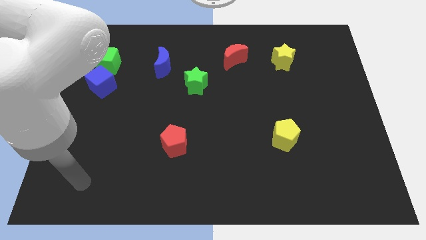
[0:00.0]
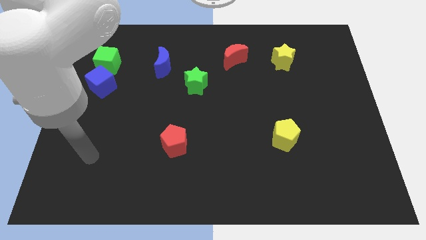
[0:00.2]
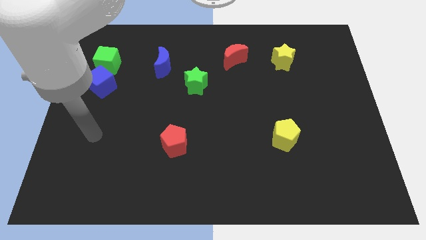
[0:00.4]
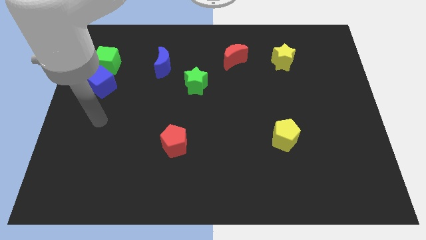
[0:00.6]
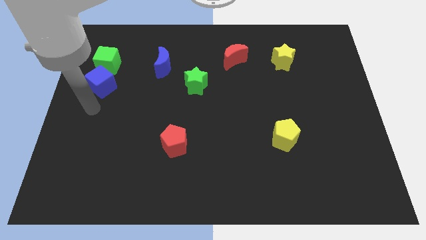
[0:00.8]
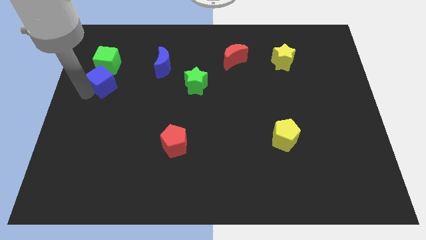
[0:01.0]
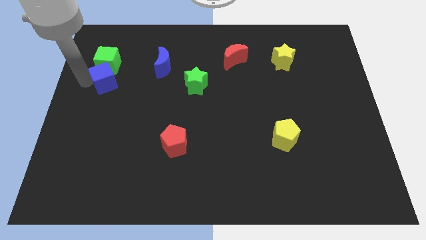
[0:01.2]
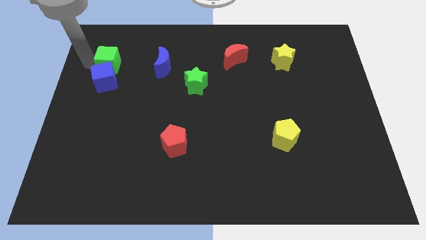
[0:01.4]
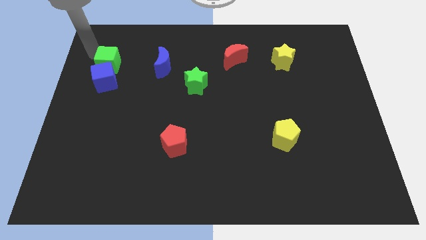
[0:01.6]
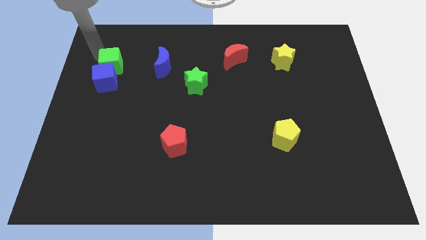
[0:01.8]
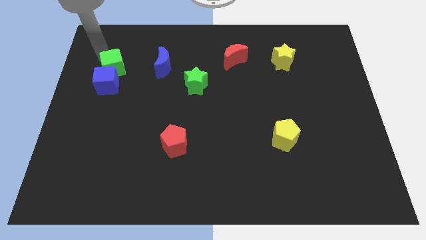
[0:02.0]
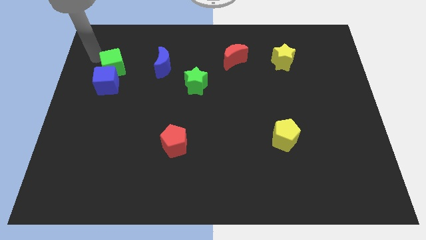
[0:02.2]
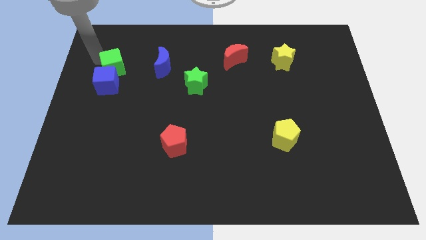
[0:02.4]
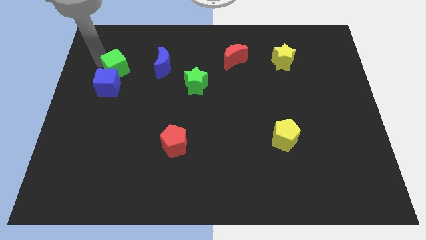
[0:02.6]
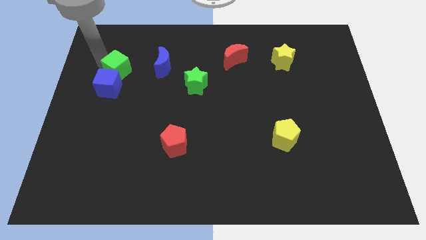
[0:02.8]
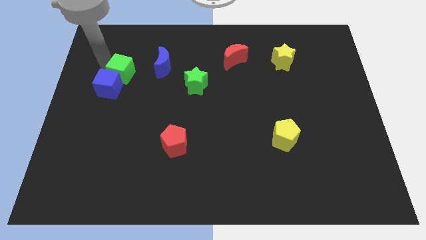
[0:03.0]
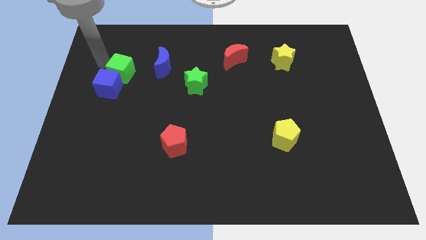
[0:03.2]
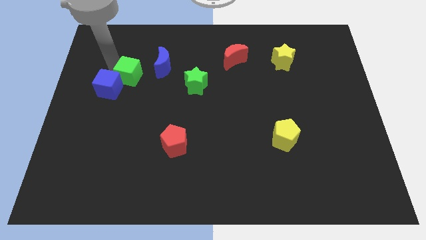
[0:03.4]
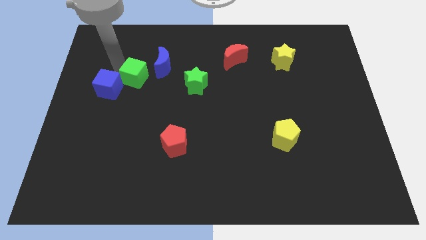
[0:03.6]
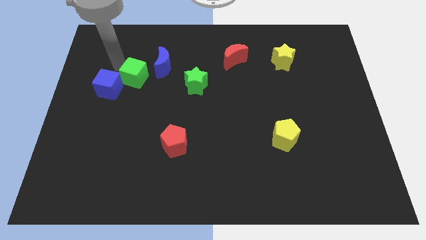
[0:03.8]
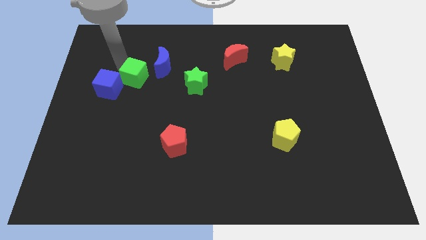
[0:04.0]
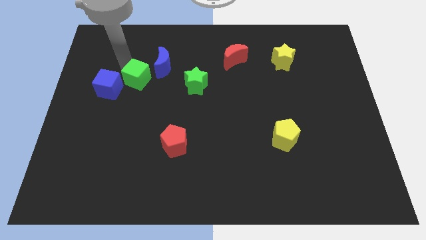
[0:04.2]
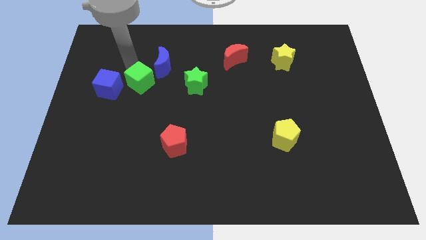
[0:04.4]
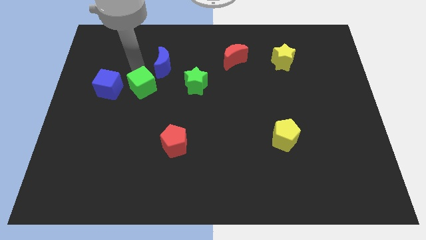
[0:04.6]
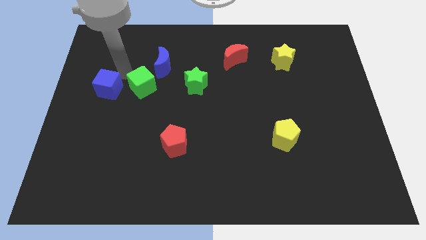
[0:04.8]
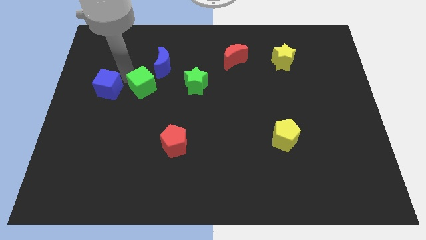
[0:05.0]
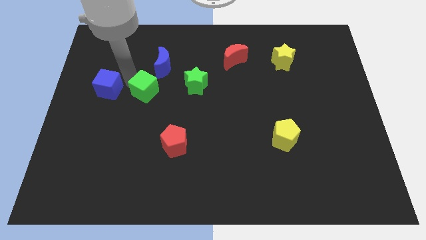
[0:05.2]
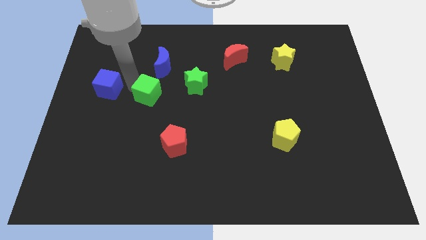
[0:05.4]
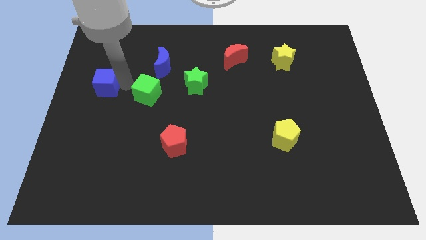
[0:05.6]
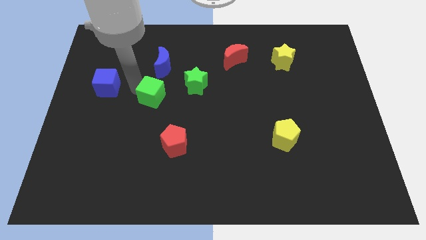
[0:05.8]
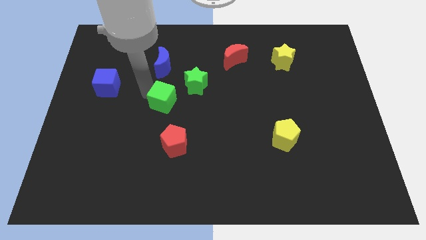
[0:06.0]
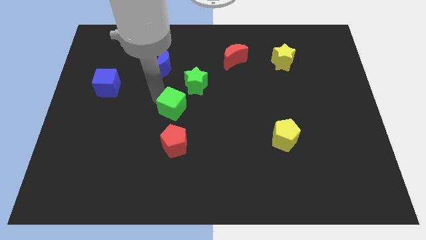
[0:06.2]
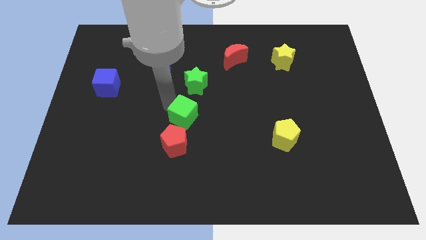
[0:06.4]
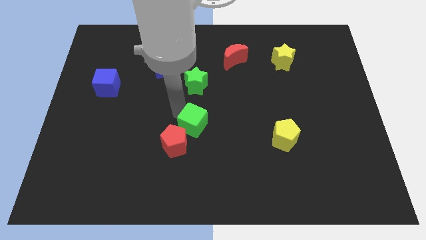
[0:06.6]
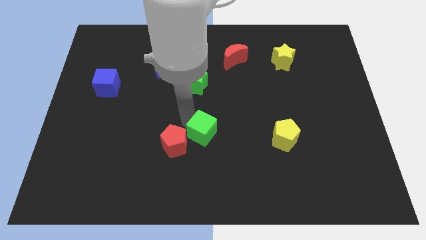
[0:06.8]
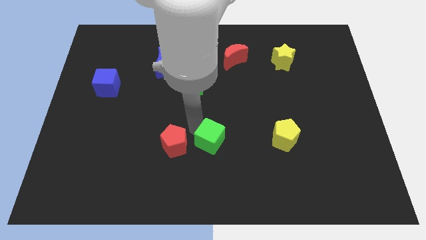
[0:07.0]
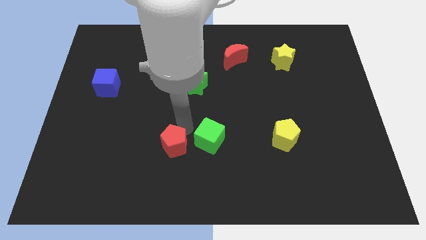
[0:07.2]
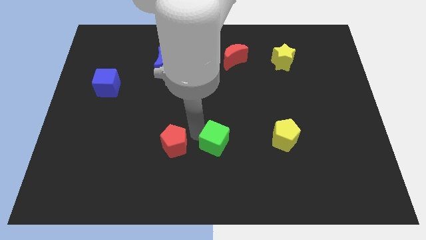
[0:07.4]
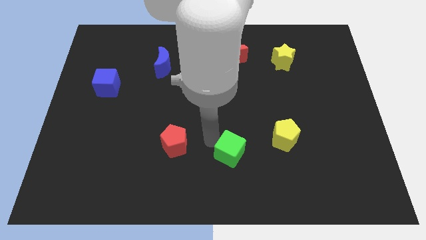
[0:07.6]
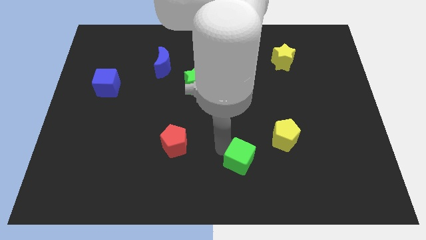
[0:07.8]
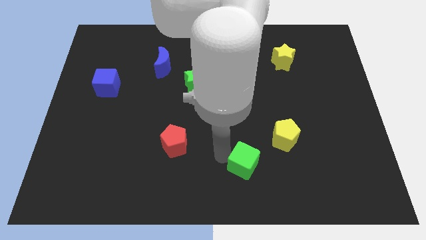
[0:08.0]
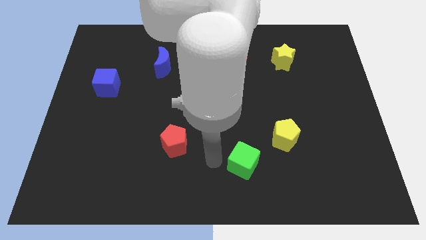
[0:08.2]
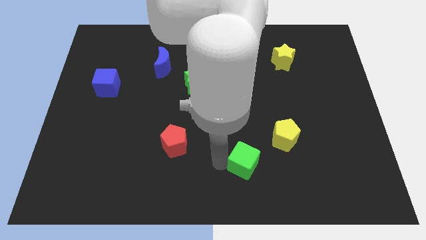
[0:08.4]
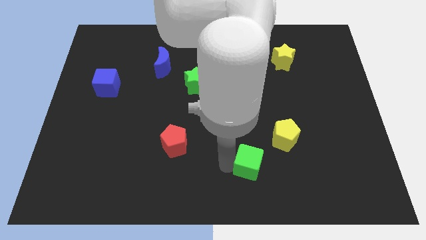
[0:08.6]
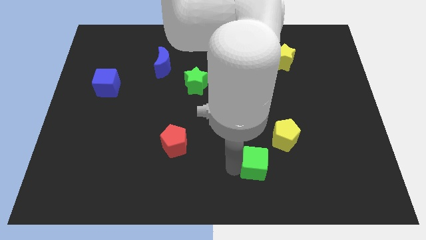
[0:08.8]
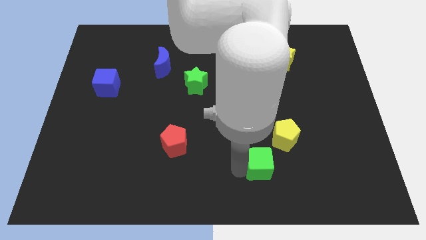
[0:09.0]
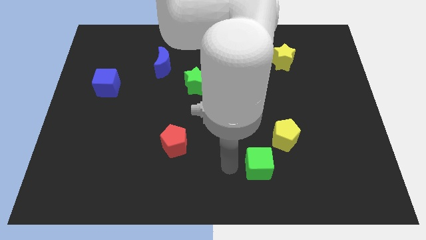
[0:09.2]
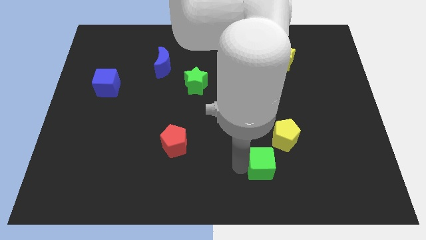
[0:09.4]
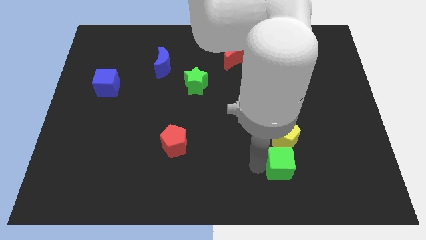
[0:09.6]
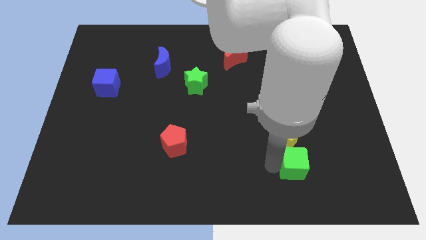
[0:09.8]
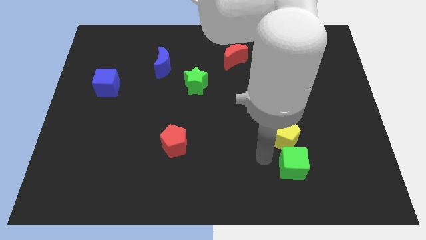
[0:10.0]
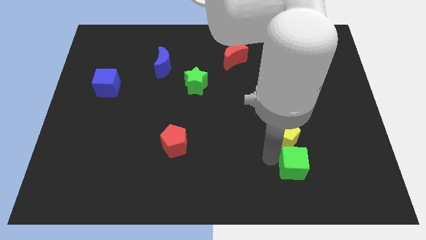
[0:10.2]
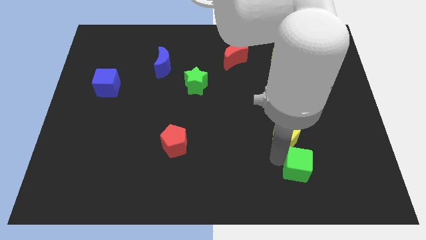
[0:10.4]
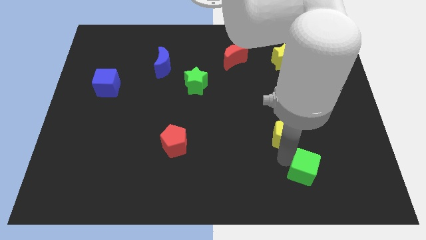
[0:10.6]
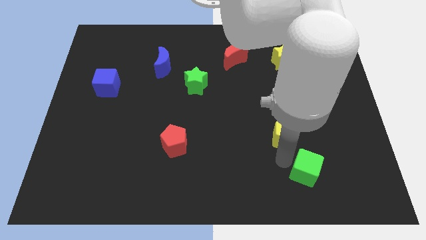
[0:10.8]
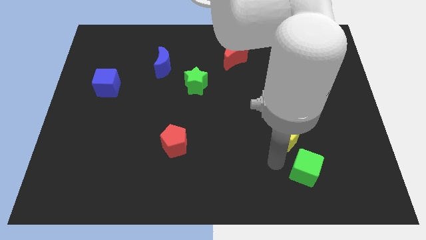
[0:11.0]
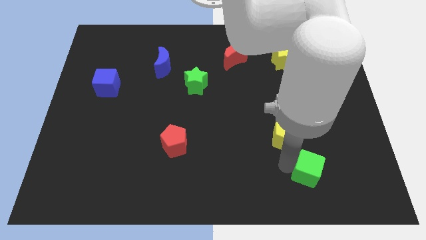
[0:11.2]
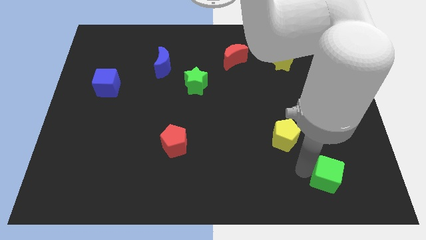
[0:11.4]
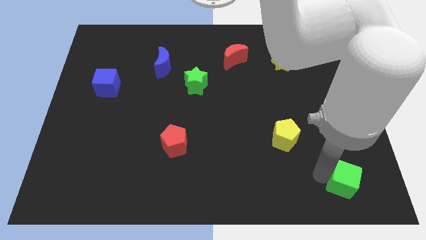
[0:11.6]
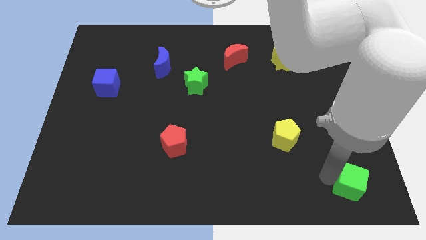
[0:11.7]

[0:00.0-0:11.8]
push the green cube to the bottom right corner

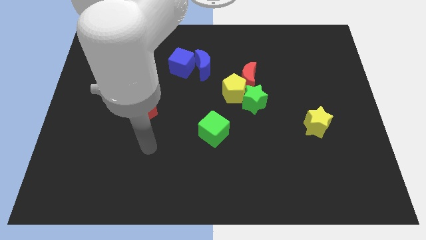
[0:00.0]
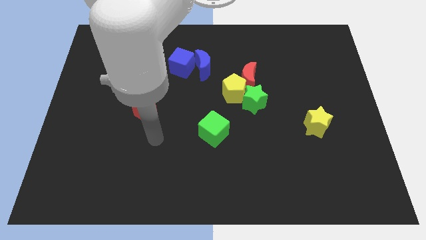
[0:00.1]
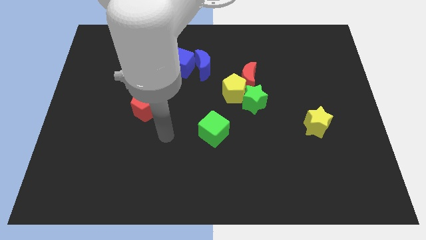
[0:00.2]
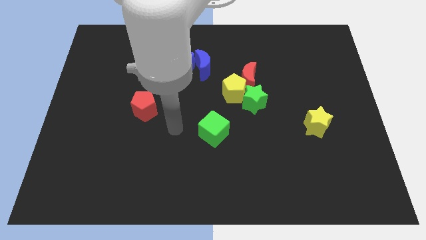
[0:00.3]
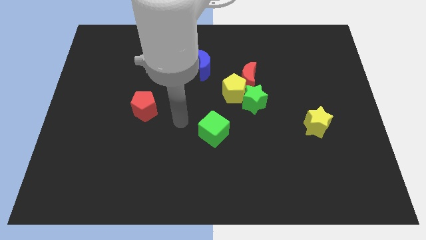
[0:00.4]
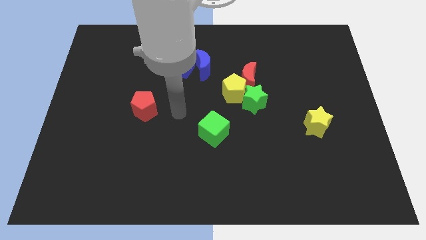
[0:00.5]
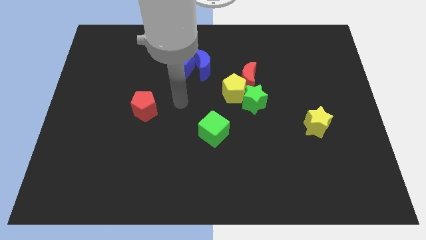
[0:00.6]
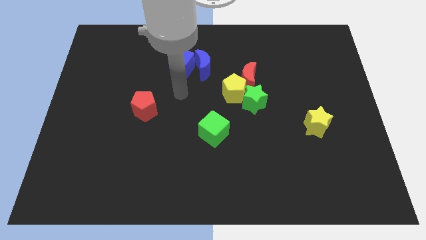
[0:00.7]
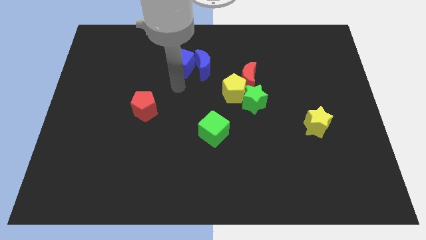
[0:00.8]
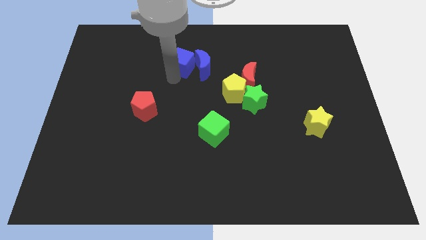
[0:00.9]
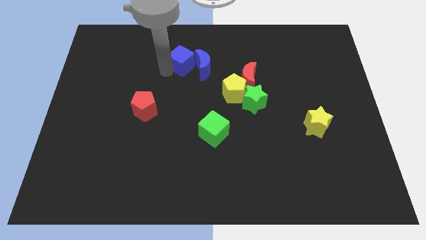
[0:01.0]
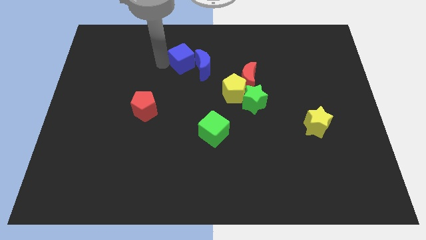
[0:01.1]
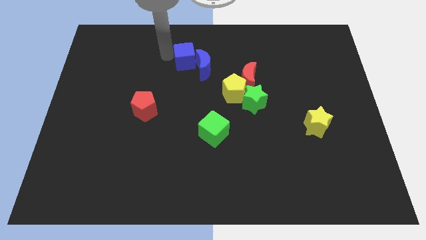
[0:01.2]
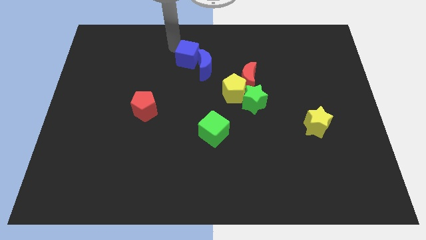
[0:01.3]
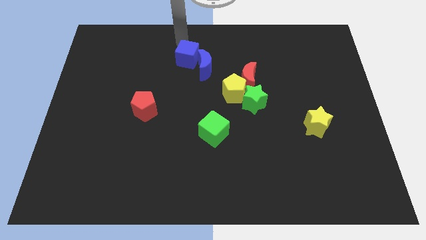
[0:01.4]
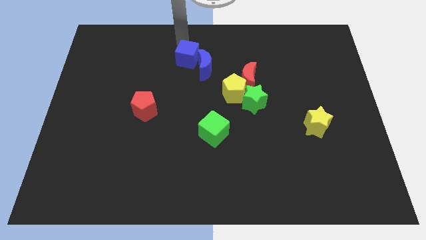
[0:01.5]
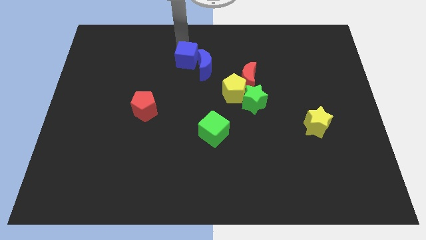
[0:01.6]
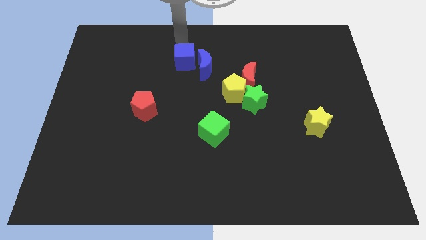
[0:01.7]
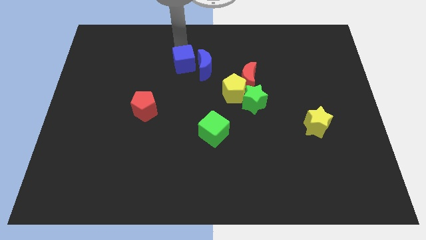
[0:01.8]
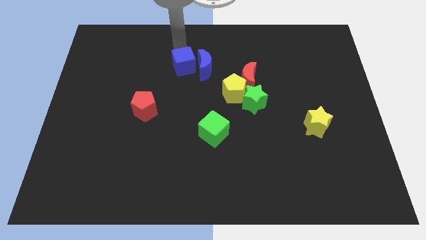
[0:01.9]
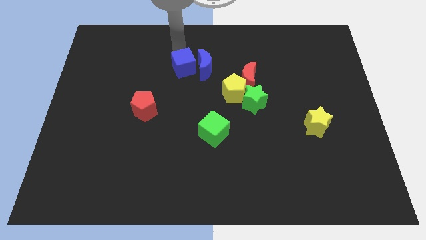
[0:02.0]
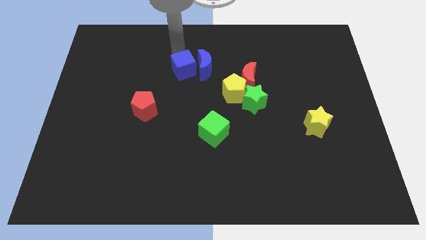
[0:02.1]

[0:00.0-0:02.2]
put the blue cube to the center
